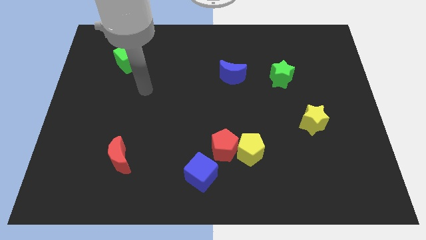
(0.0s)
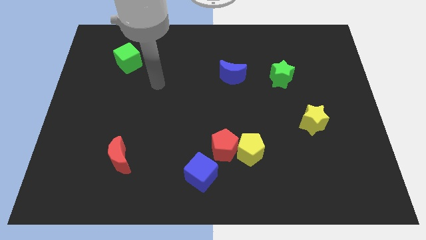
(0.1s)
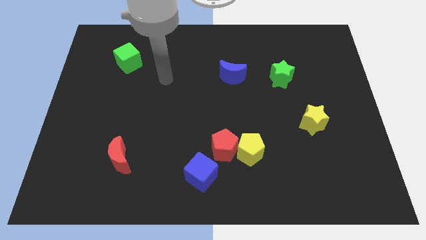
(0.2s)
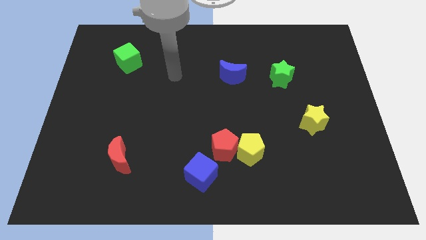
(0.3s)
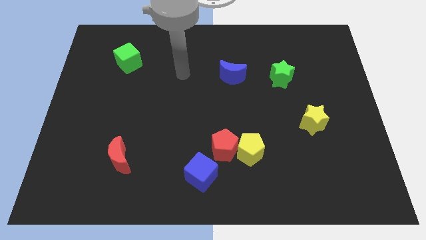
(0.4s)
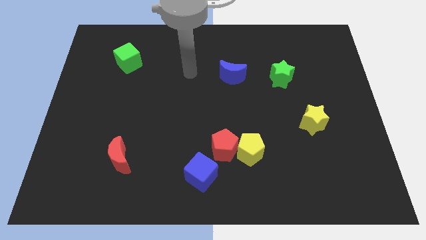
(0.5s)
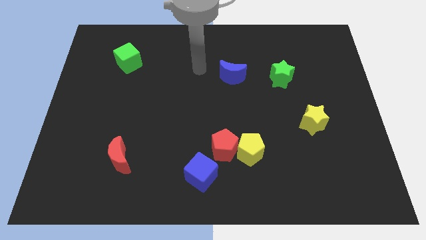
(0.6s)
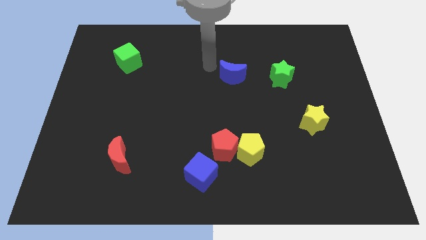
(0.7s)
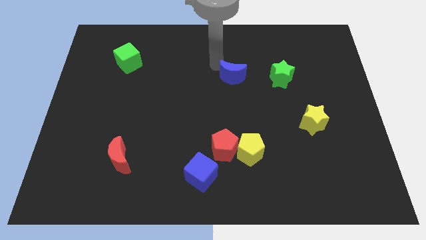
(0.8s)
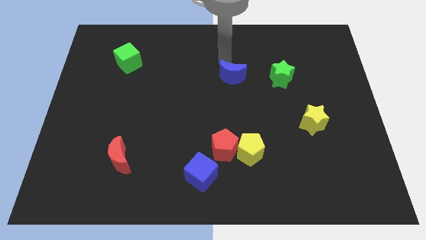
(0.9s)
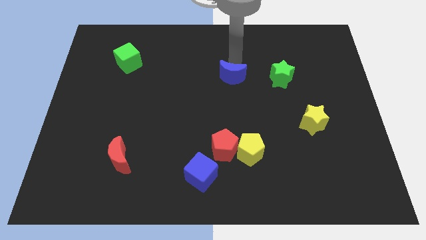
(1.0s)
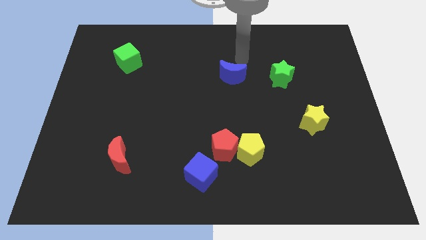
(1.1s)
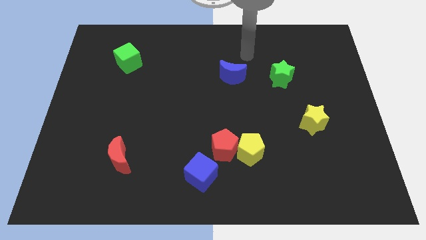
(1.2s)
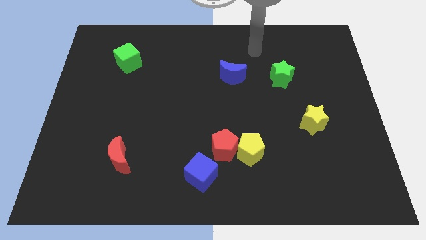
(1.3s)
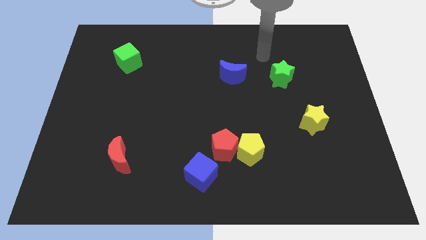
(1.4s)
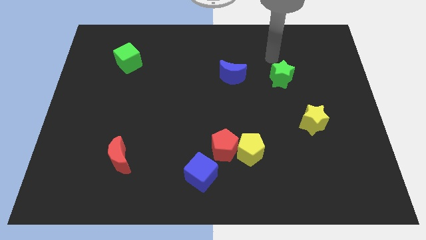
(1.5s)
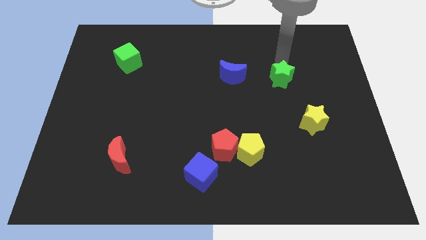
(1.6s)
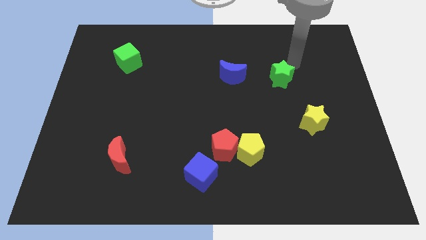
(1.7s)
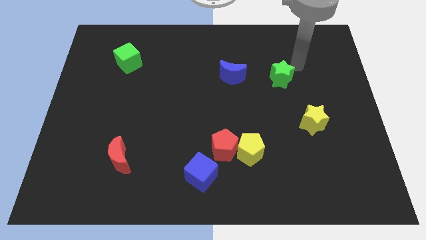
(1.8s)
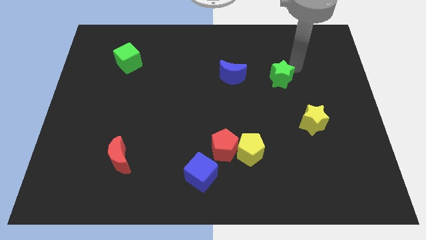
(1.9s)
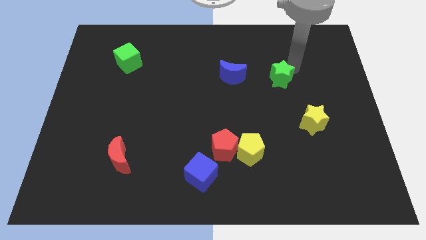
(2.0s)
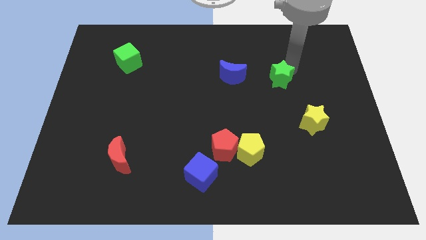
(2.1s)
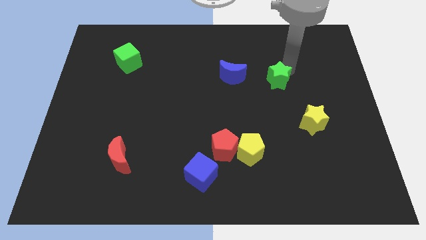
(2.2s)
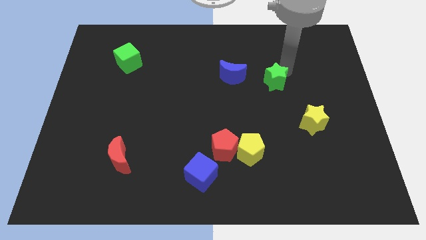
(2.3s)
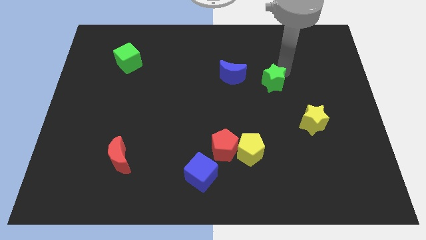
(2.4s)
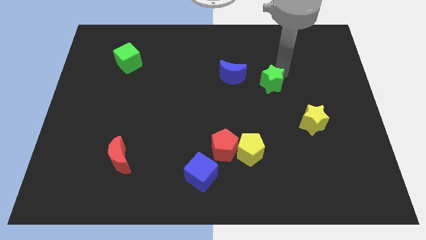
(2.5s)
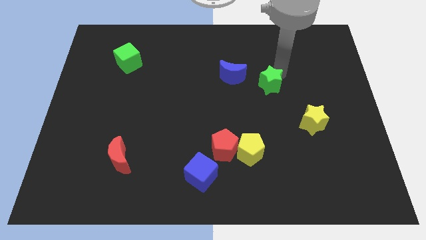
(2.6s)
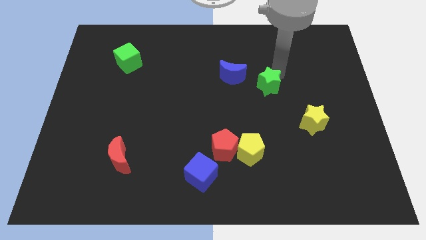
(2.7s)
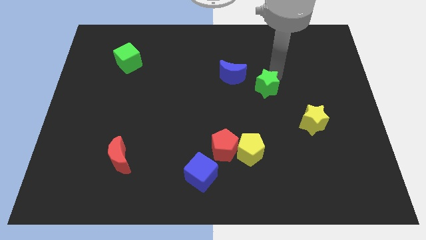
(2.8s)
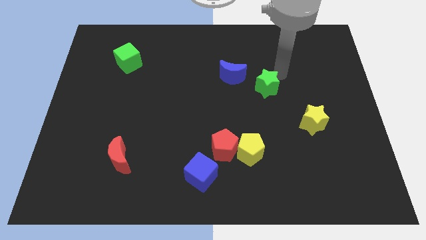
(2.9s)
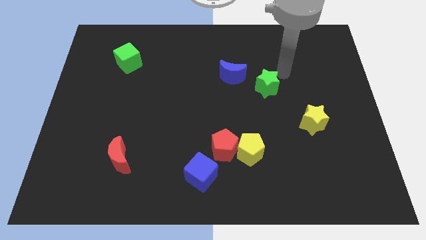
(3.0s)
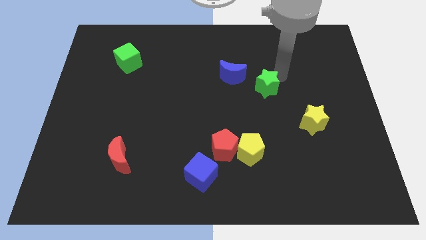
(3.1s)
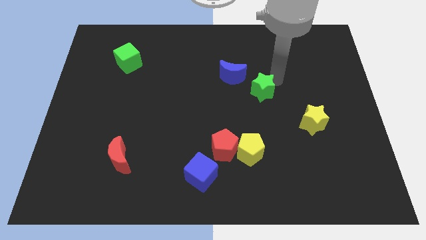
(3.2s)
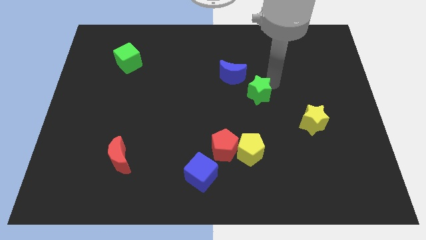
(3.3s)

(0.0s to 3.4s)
push the green star a little downwards and to the left

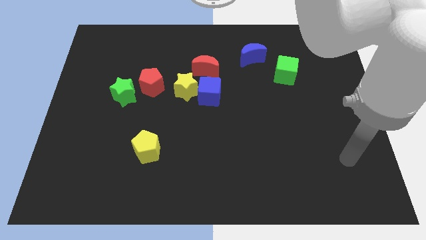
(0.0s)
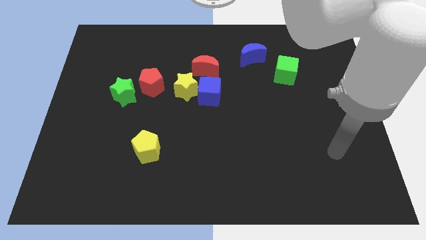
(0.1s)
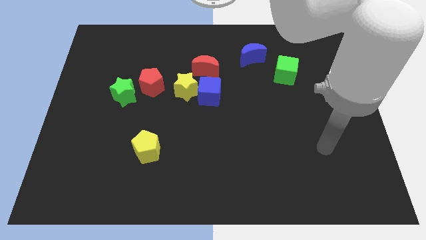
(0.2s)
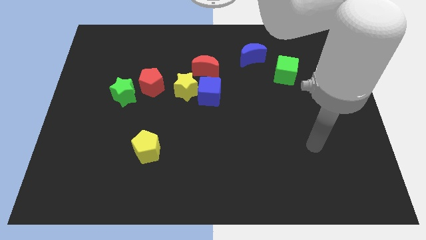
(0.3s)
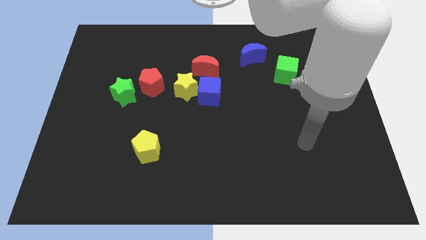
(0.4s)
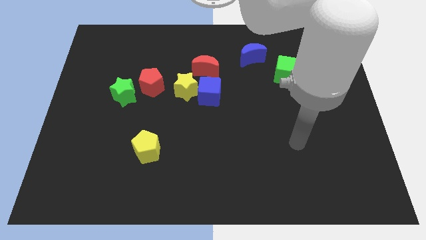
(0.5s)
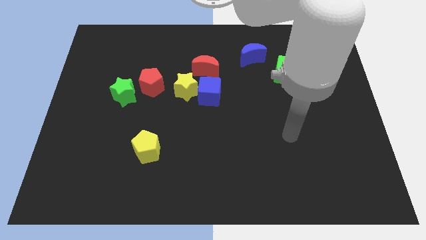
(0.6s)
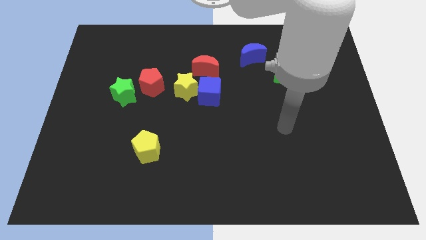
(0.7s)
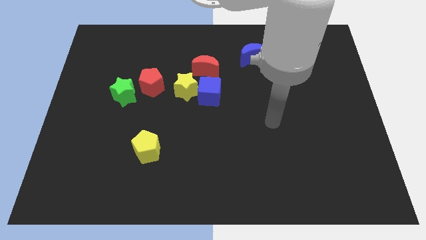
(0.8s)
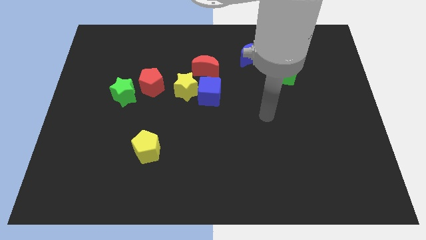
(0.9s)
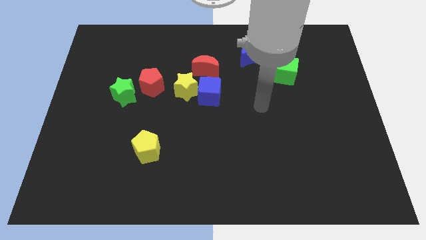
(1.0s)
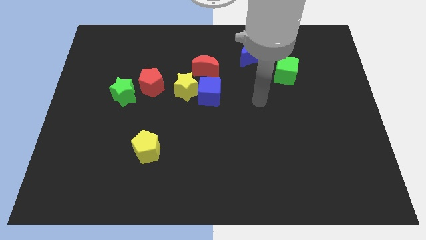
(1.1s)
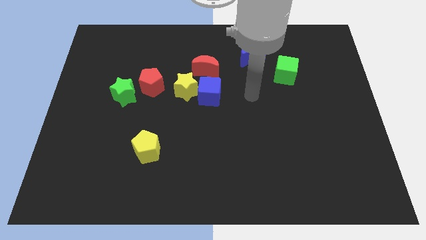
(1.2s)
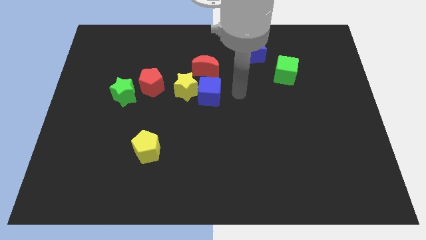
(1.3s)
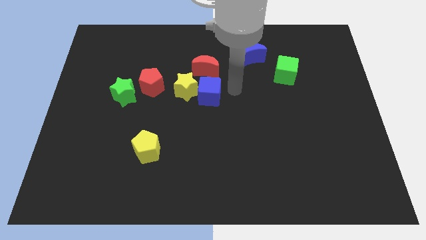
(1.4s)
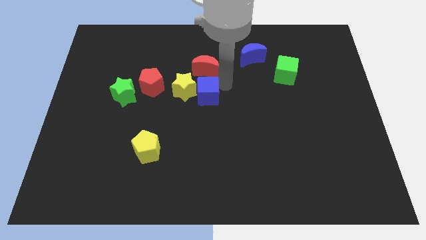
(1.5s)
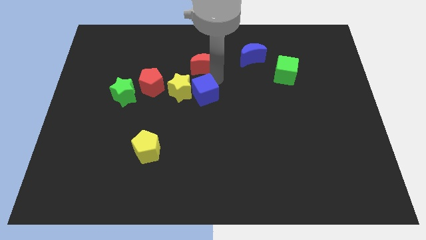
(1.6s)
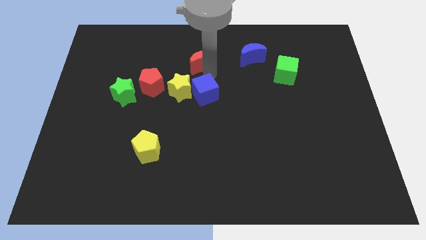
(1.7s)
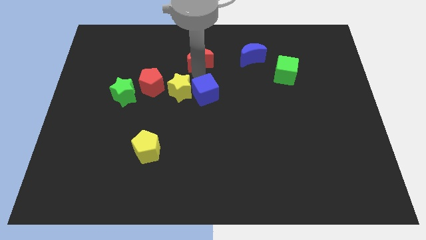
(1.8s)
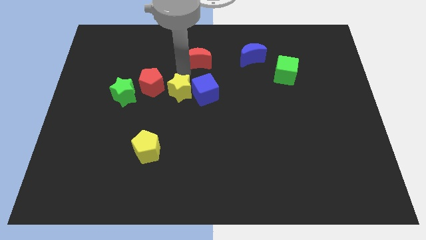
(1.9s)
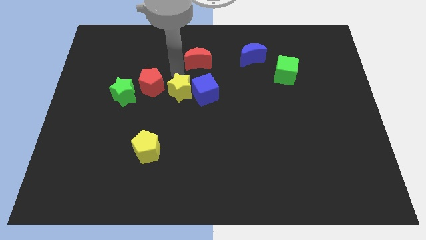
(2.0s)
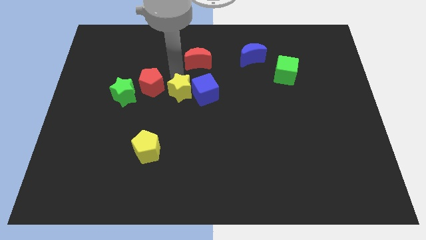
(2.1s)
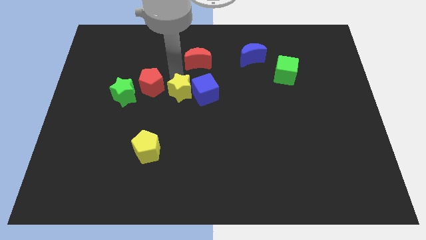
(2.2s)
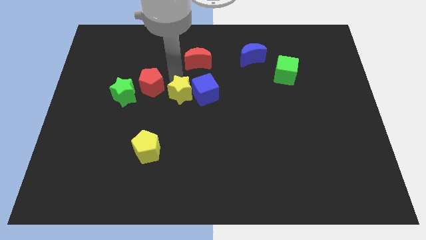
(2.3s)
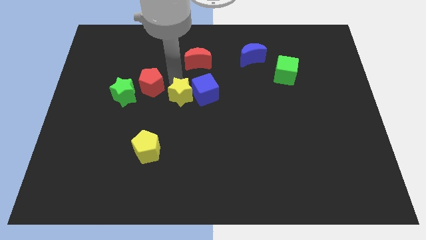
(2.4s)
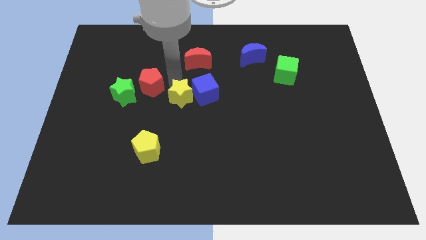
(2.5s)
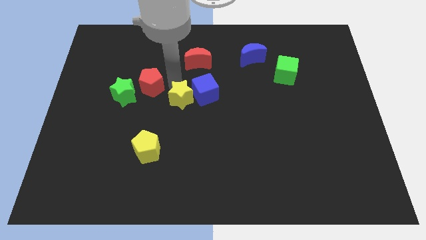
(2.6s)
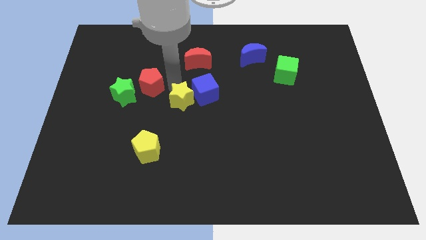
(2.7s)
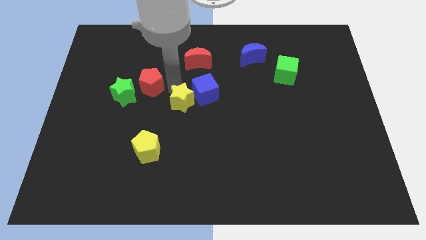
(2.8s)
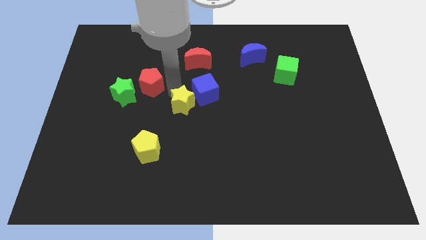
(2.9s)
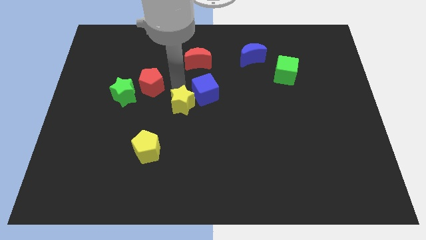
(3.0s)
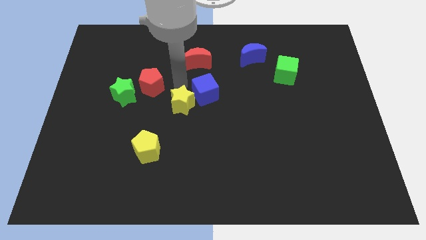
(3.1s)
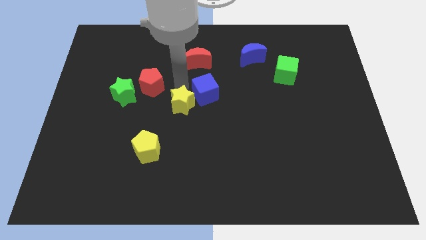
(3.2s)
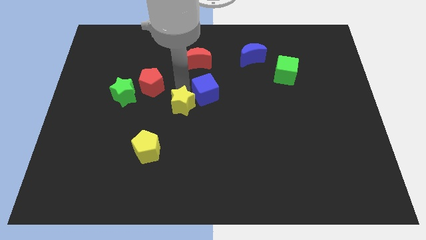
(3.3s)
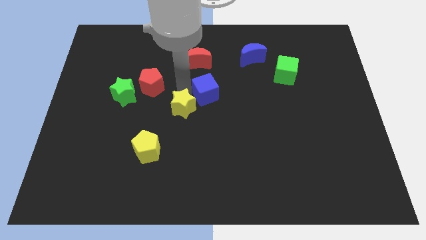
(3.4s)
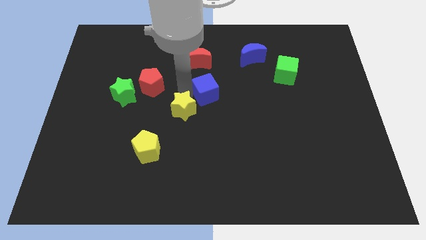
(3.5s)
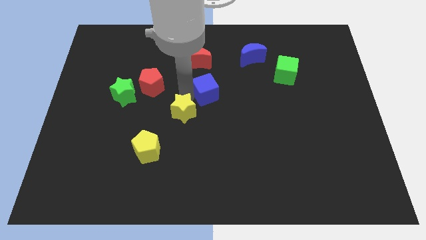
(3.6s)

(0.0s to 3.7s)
push the yellow star slightly down

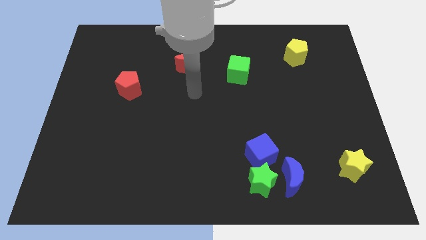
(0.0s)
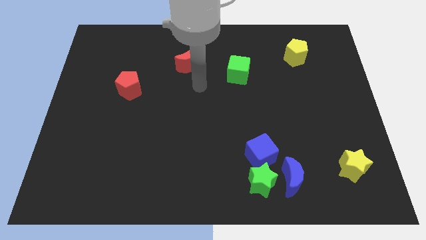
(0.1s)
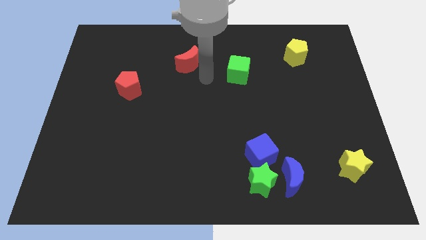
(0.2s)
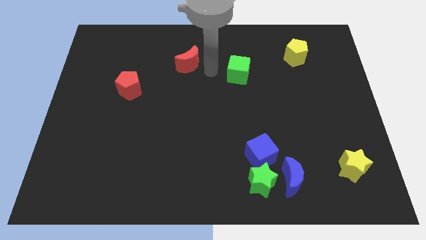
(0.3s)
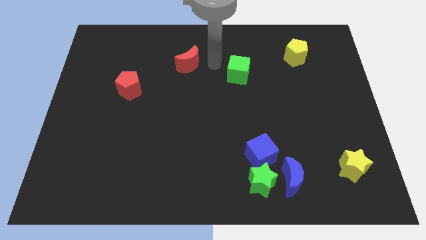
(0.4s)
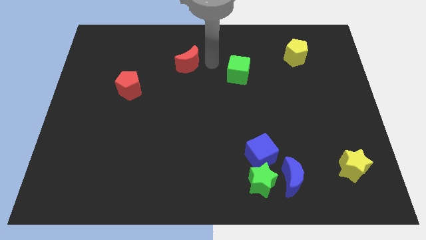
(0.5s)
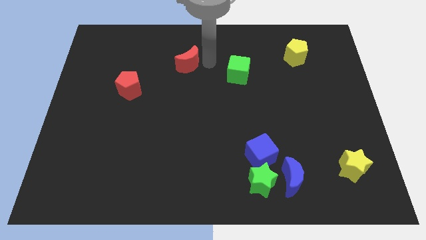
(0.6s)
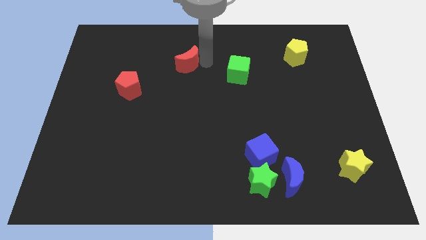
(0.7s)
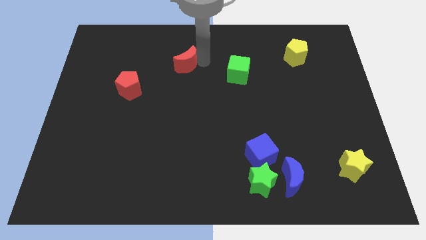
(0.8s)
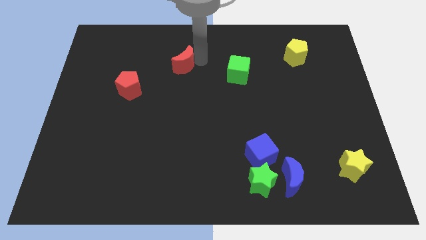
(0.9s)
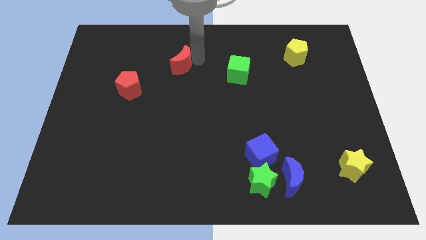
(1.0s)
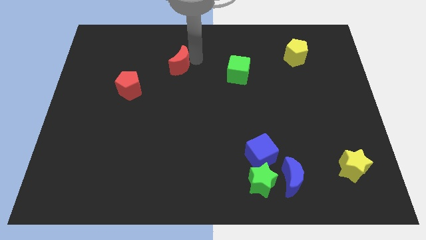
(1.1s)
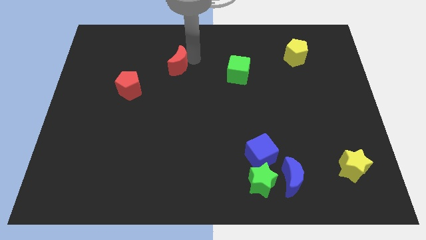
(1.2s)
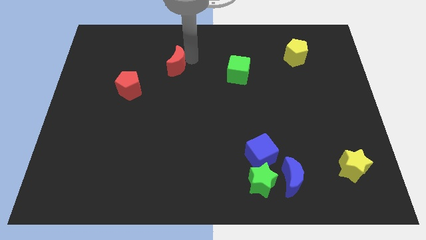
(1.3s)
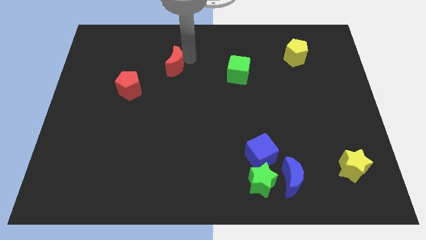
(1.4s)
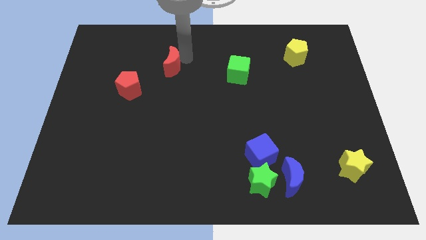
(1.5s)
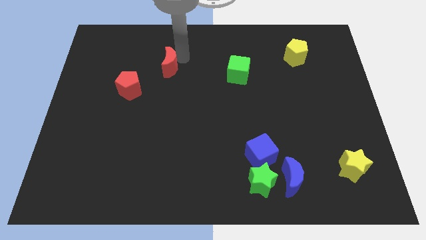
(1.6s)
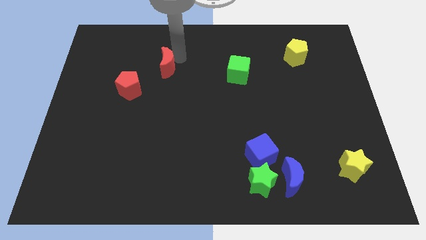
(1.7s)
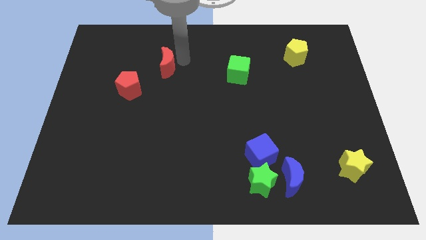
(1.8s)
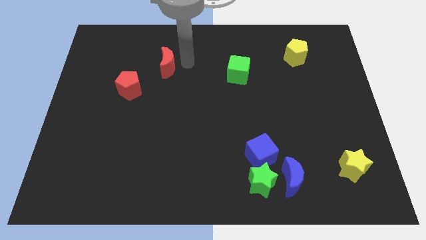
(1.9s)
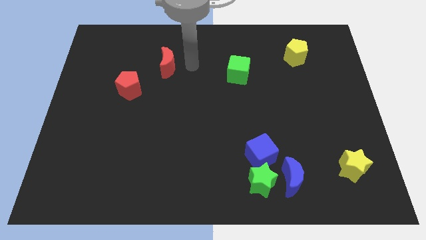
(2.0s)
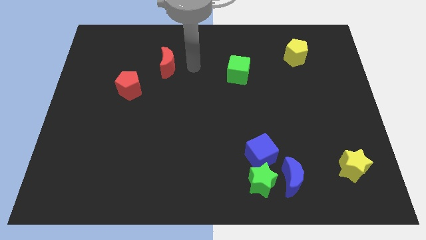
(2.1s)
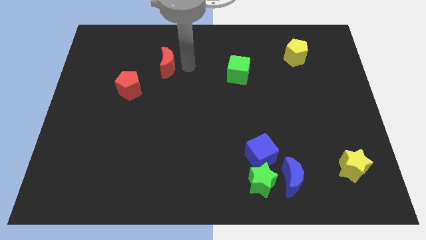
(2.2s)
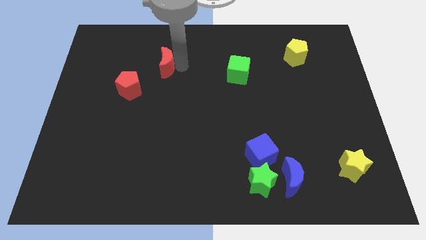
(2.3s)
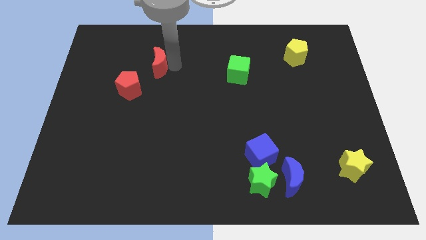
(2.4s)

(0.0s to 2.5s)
slightly push the red moon left
